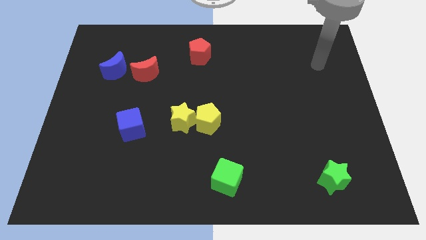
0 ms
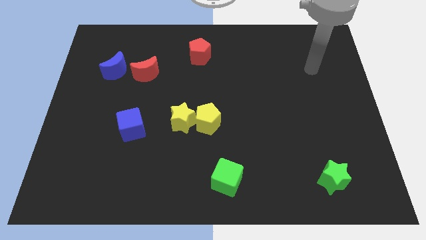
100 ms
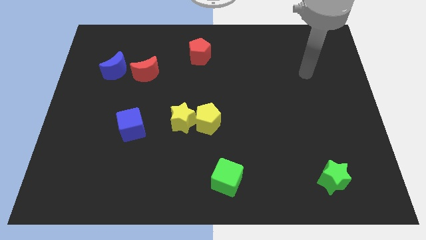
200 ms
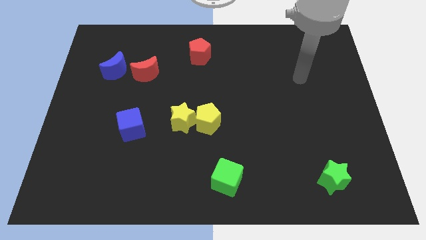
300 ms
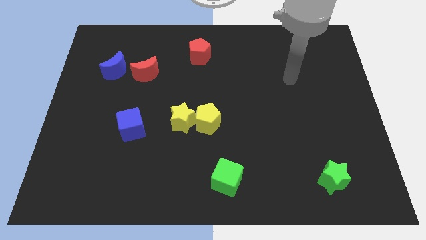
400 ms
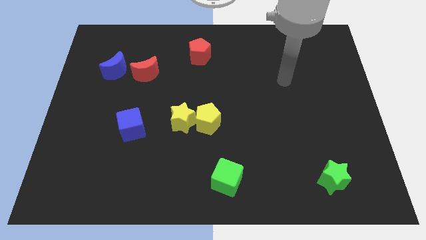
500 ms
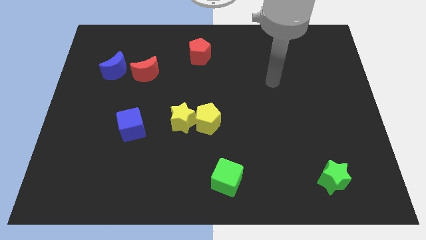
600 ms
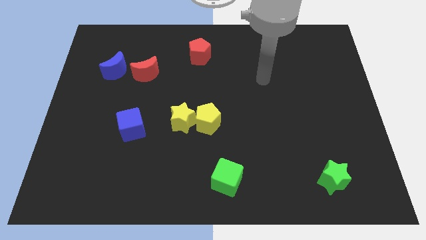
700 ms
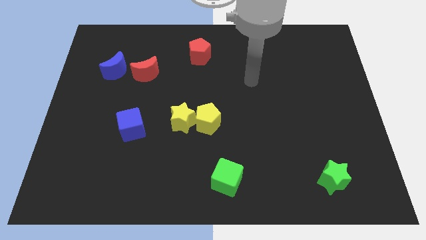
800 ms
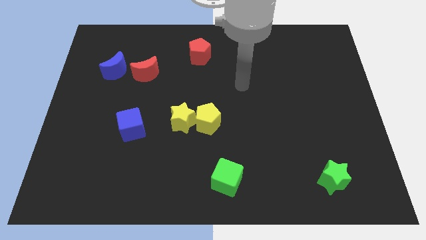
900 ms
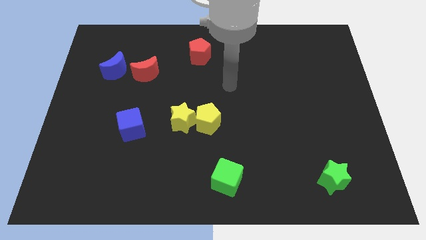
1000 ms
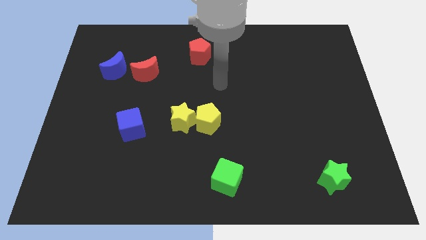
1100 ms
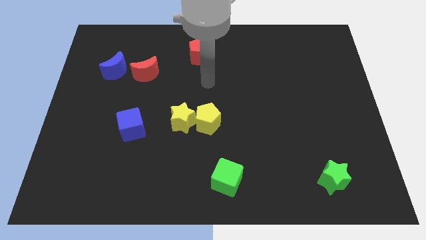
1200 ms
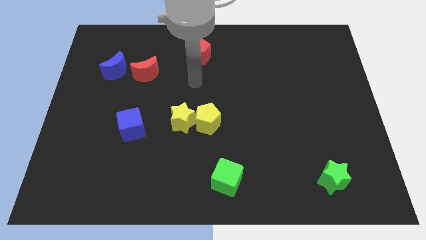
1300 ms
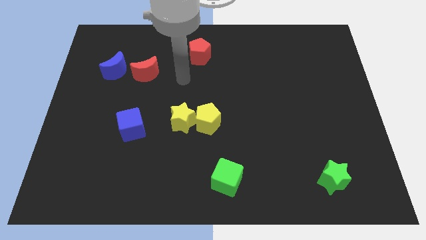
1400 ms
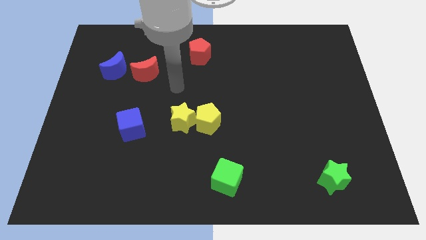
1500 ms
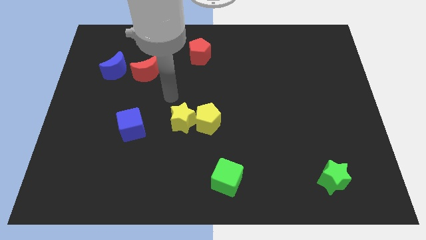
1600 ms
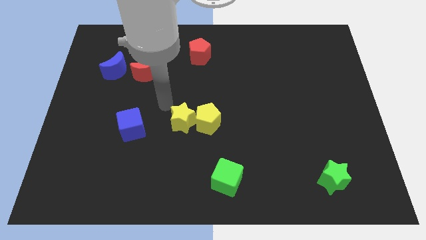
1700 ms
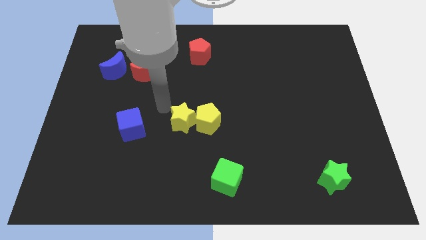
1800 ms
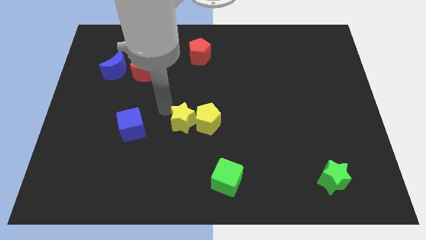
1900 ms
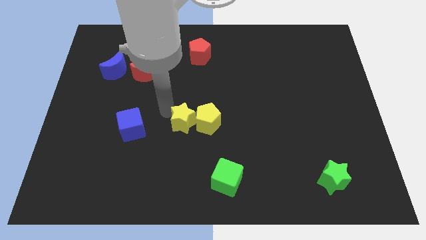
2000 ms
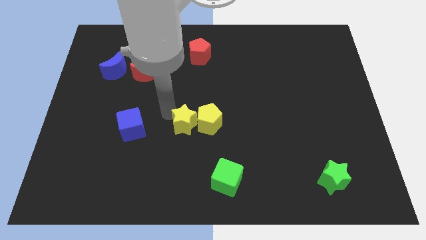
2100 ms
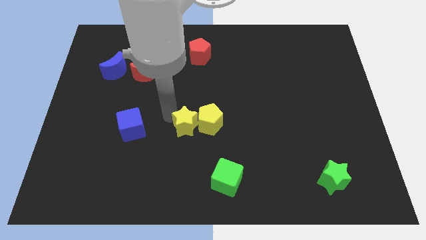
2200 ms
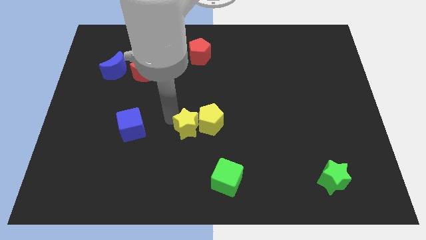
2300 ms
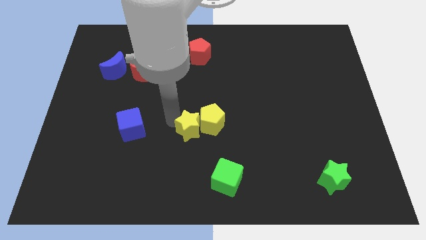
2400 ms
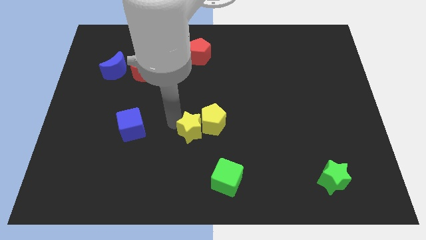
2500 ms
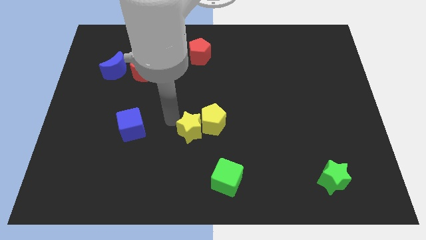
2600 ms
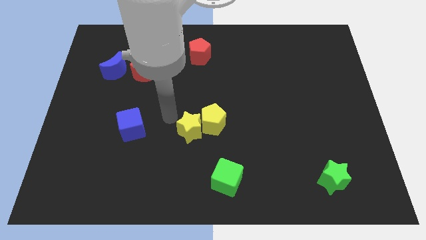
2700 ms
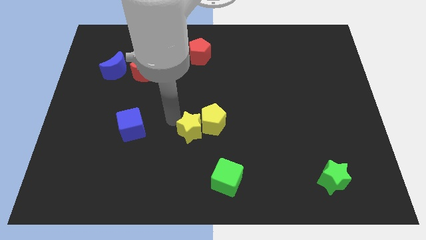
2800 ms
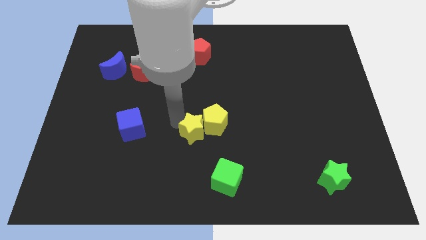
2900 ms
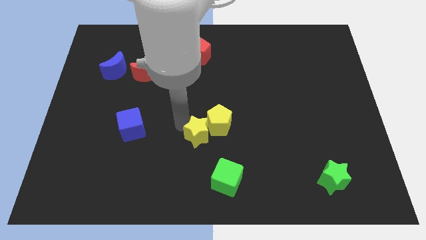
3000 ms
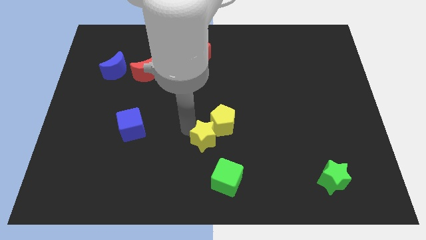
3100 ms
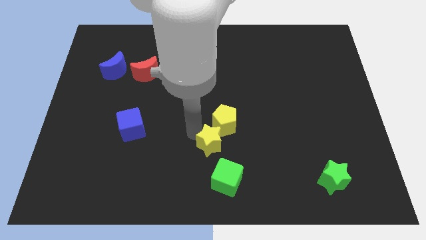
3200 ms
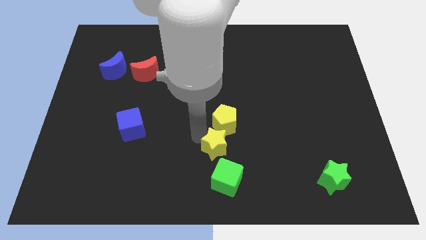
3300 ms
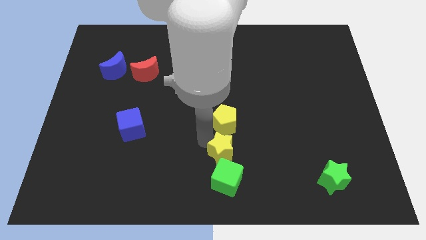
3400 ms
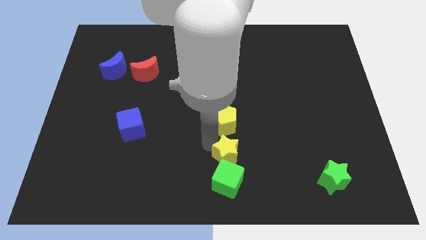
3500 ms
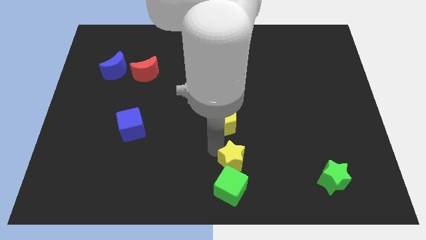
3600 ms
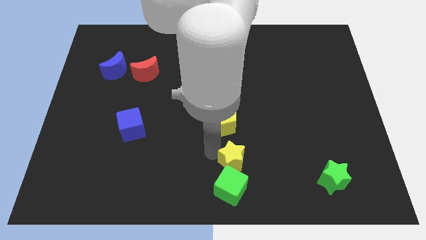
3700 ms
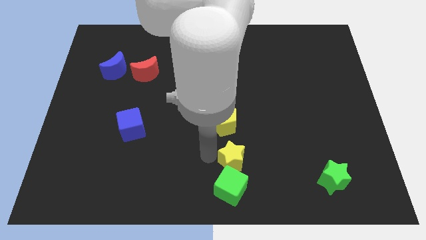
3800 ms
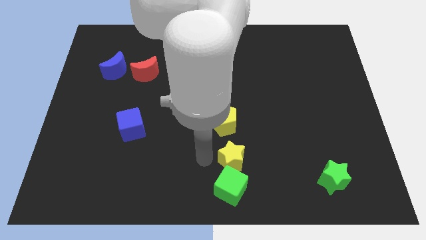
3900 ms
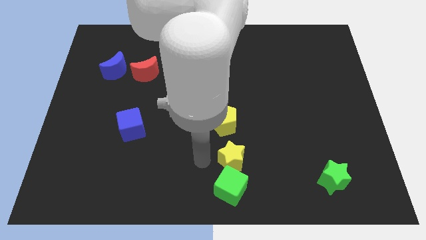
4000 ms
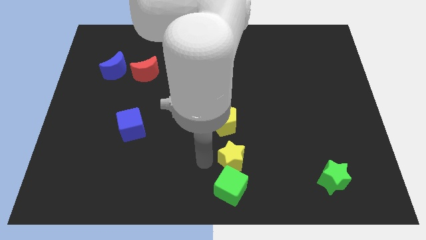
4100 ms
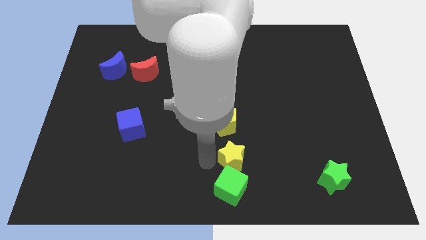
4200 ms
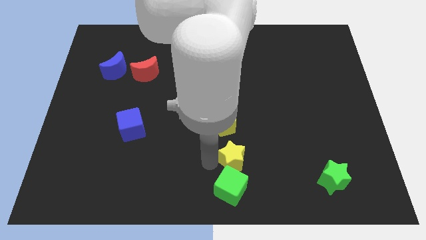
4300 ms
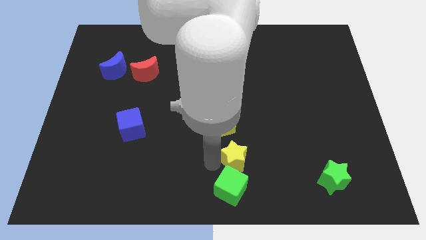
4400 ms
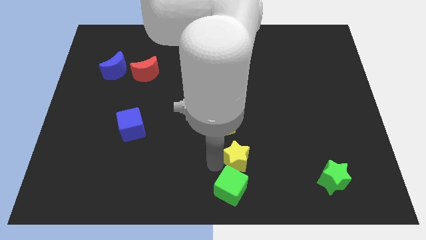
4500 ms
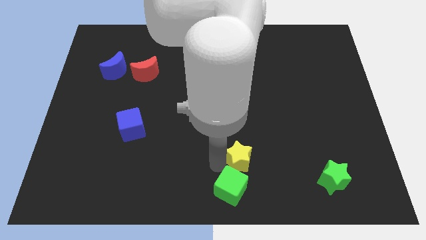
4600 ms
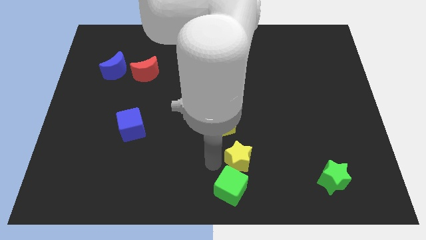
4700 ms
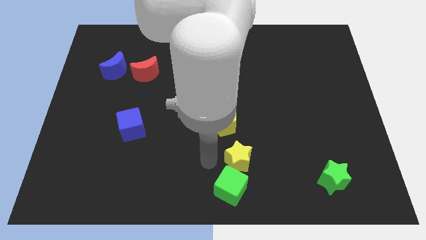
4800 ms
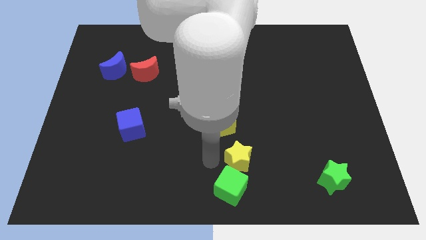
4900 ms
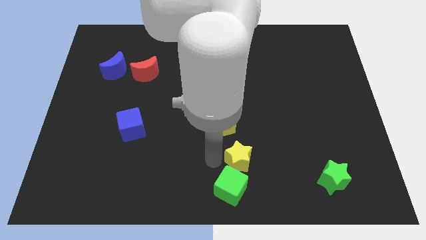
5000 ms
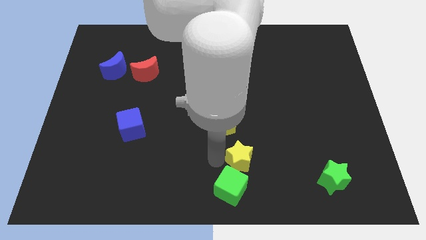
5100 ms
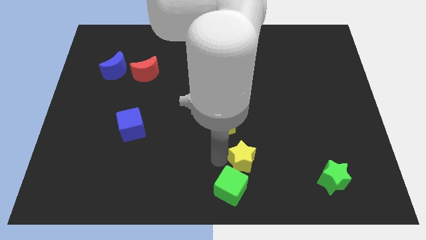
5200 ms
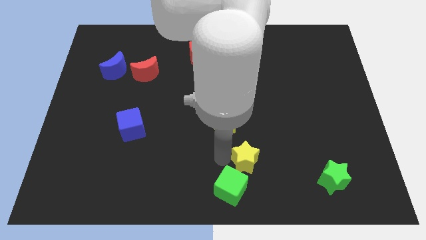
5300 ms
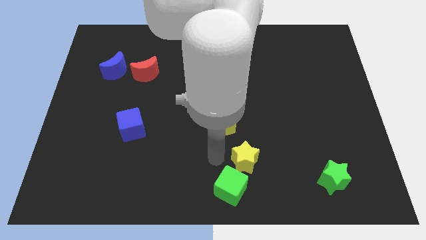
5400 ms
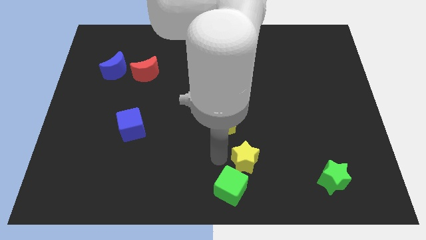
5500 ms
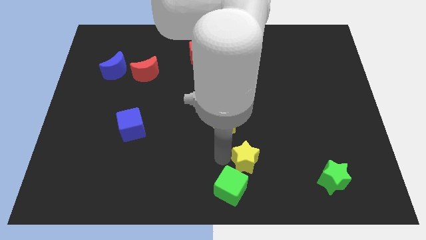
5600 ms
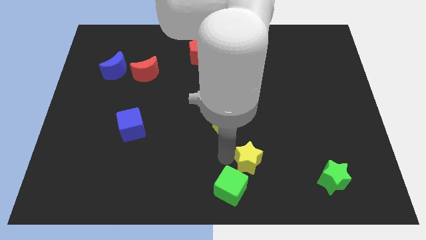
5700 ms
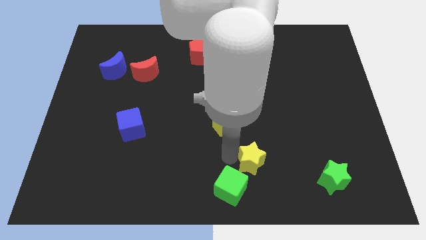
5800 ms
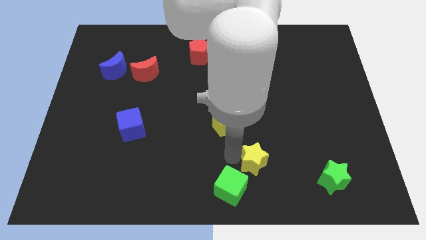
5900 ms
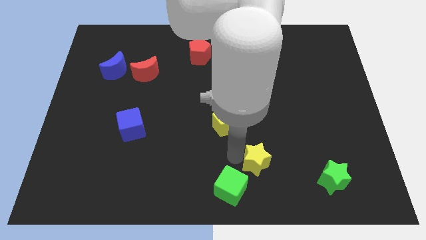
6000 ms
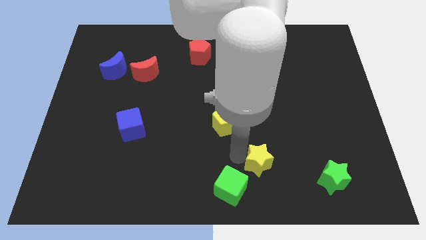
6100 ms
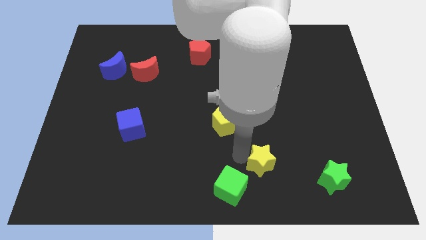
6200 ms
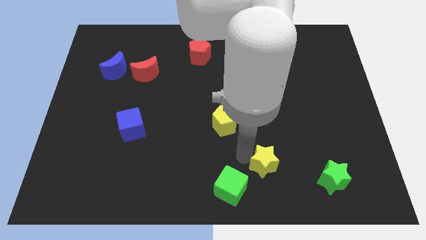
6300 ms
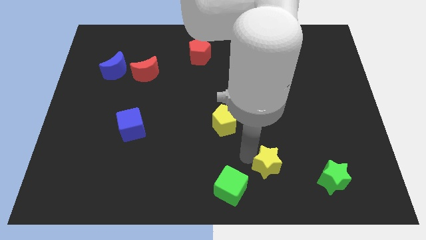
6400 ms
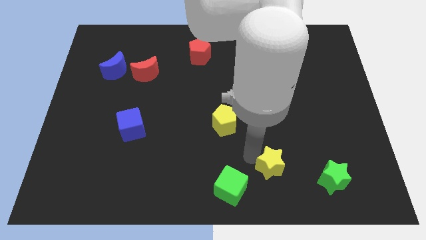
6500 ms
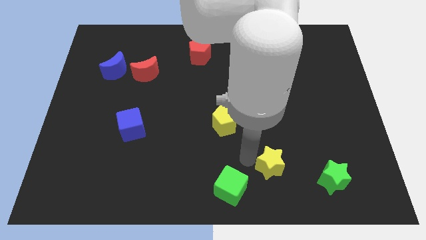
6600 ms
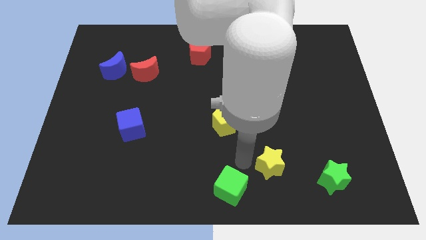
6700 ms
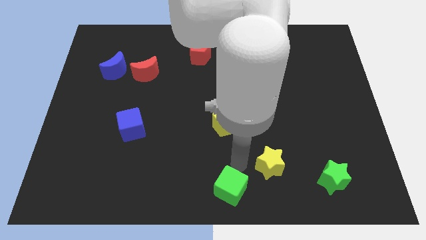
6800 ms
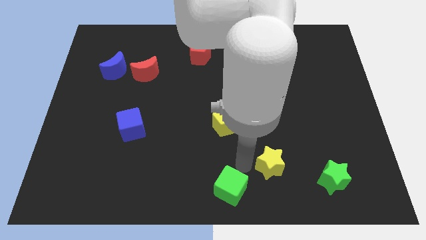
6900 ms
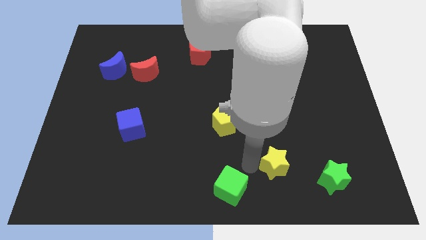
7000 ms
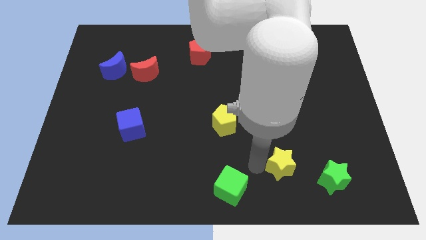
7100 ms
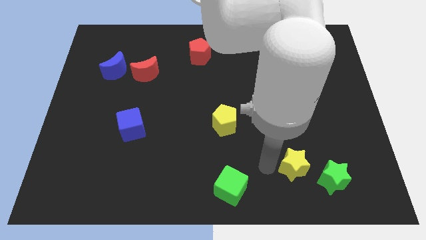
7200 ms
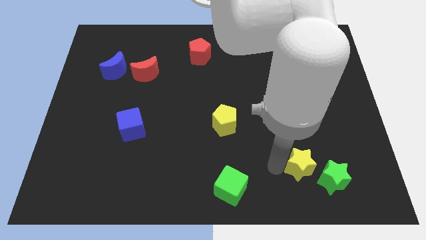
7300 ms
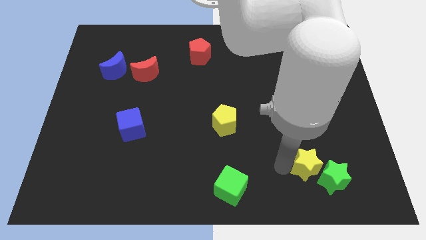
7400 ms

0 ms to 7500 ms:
slide the yellow star towards the green star
